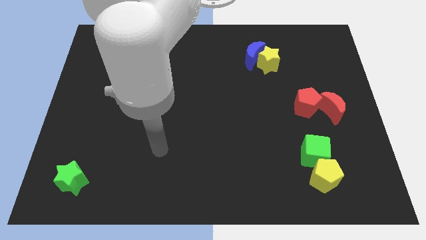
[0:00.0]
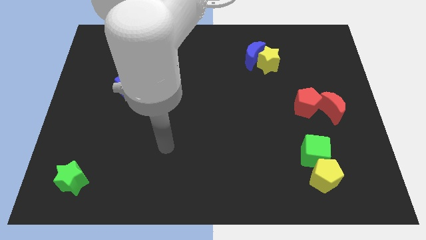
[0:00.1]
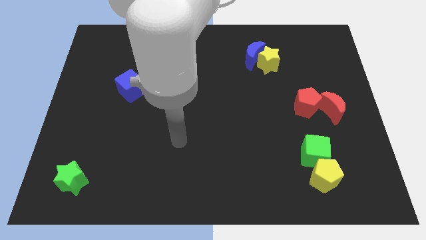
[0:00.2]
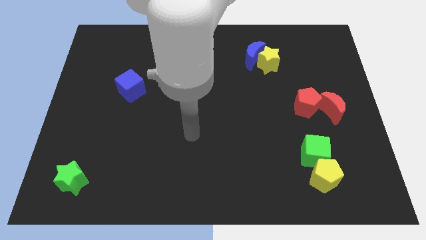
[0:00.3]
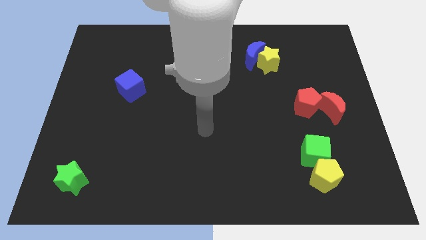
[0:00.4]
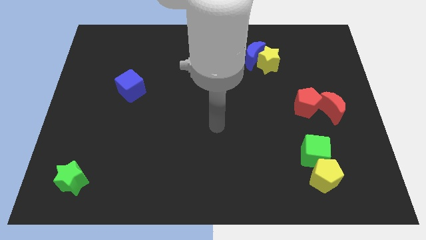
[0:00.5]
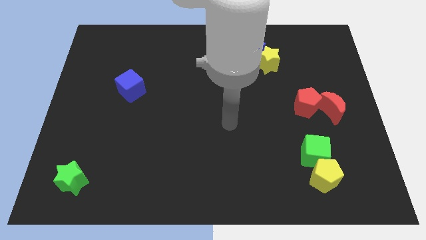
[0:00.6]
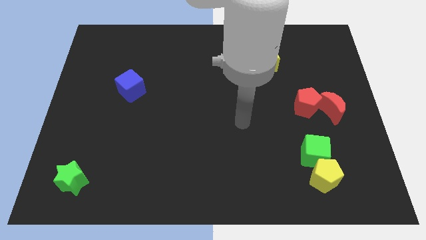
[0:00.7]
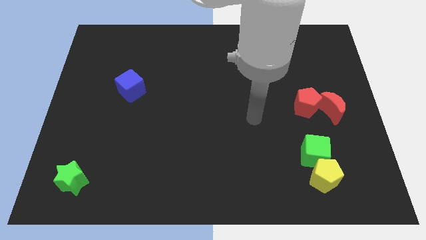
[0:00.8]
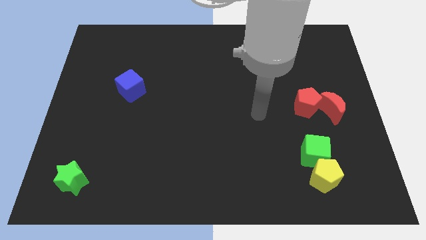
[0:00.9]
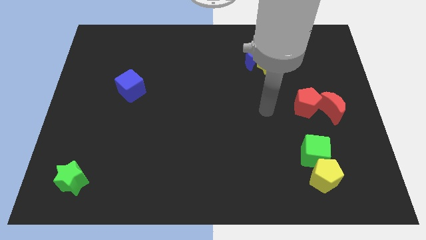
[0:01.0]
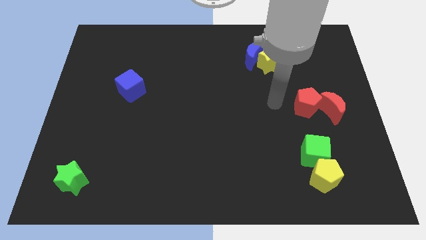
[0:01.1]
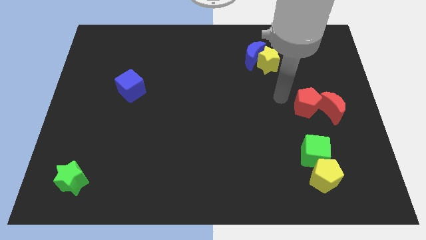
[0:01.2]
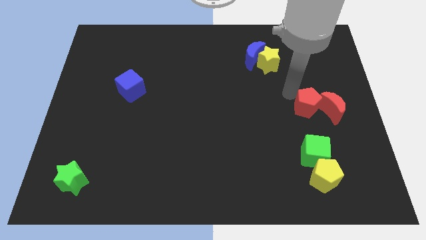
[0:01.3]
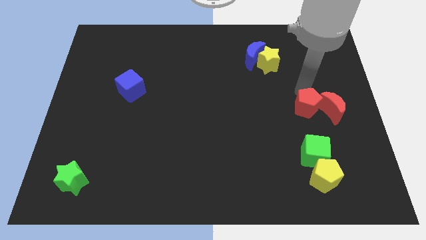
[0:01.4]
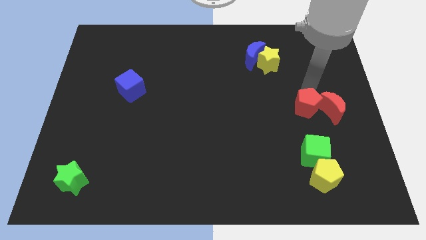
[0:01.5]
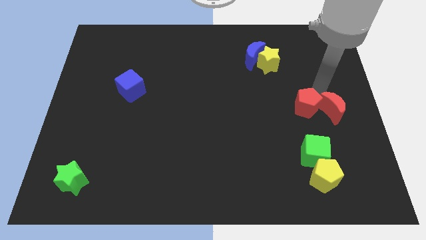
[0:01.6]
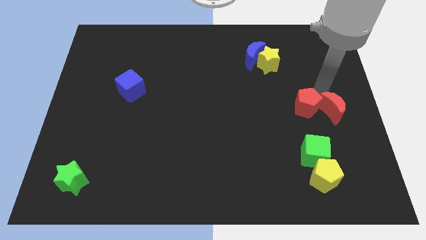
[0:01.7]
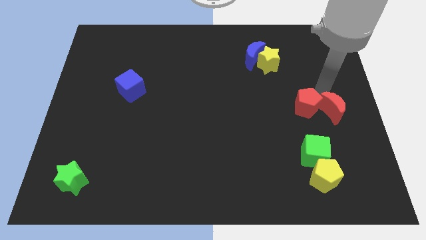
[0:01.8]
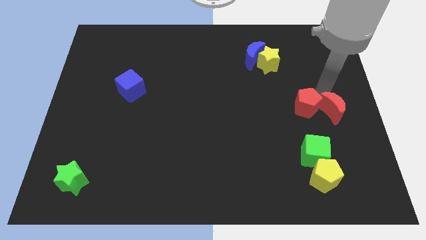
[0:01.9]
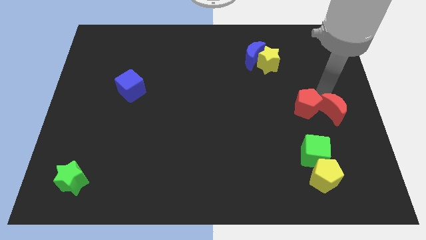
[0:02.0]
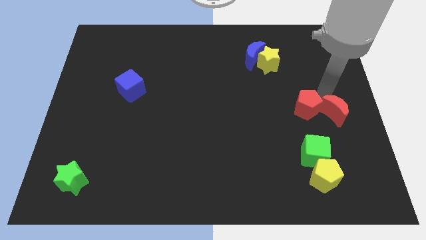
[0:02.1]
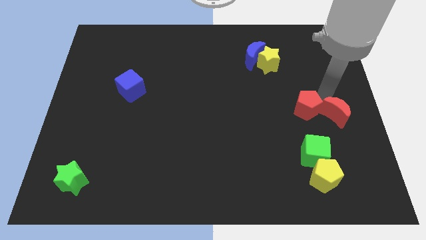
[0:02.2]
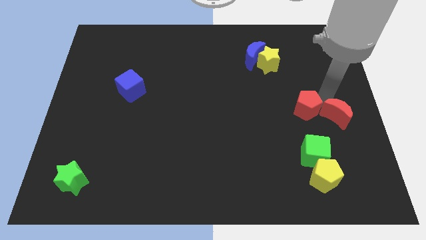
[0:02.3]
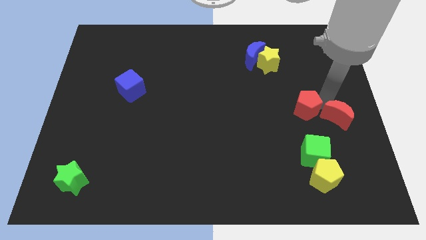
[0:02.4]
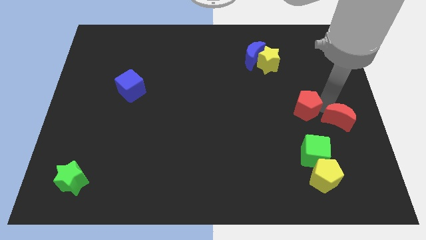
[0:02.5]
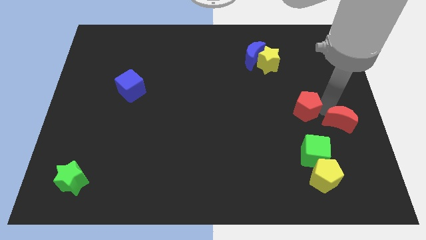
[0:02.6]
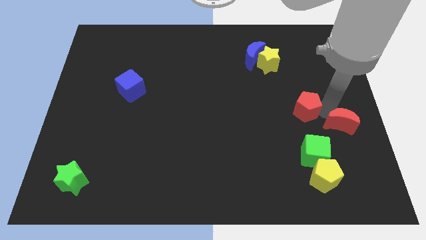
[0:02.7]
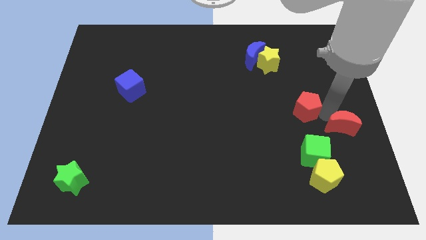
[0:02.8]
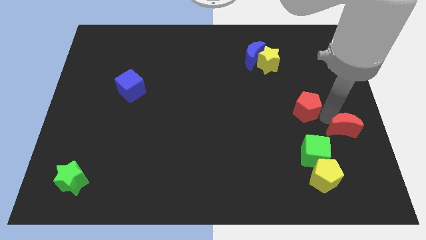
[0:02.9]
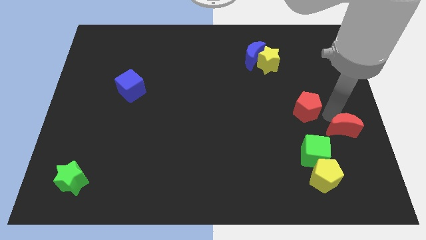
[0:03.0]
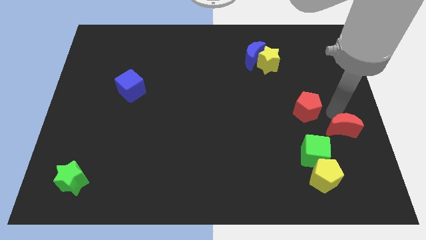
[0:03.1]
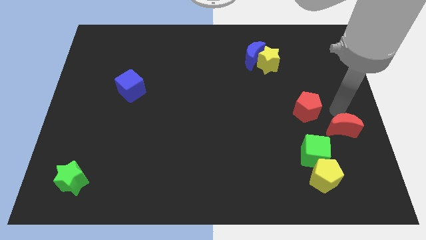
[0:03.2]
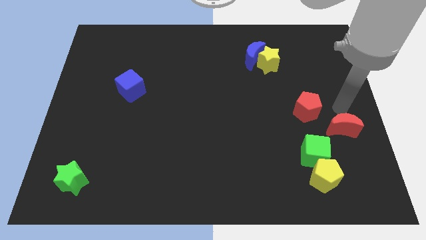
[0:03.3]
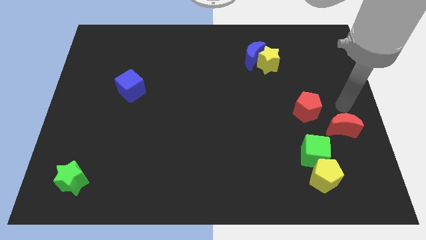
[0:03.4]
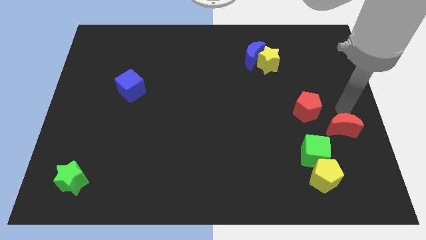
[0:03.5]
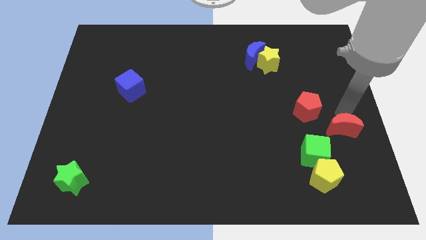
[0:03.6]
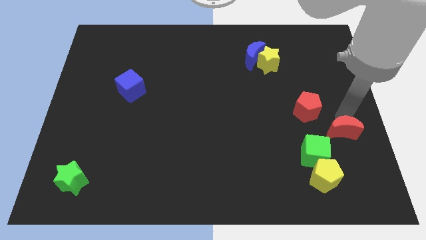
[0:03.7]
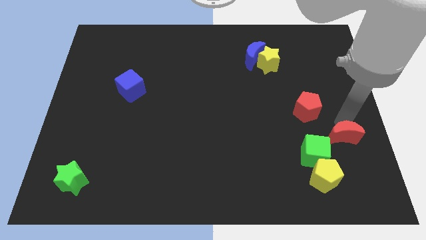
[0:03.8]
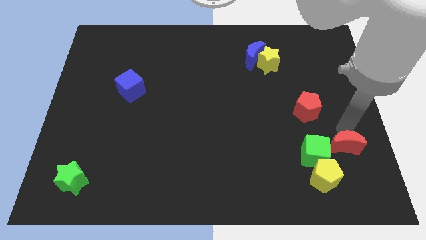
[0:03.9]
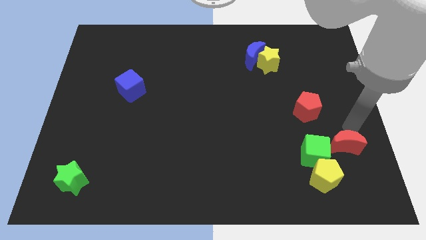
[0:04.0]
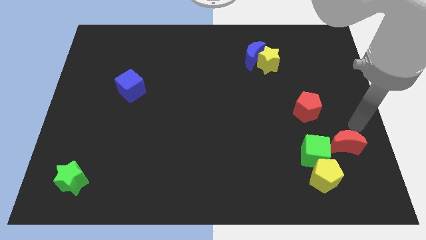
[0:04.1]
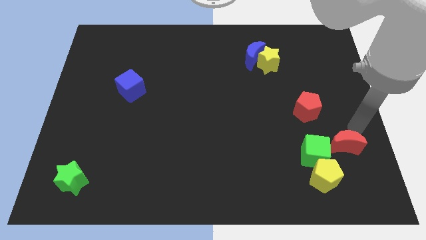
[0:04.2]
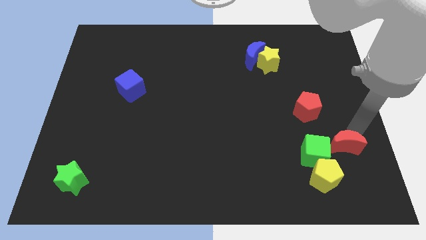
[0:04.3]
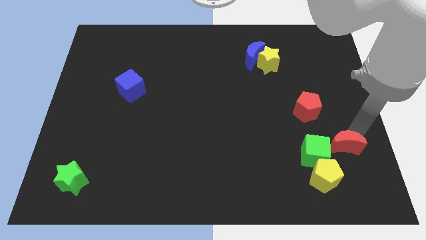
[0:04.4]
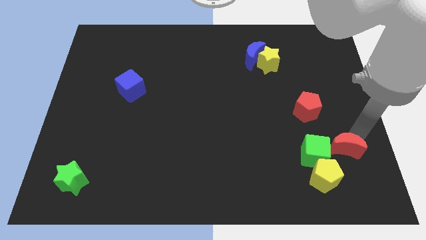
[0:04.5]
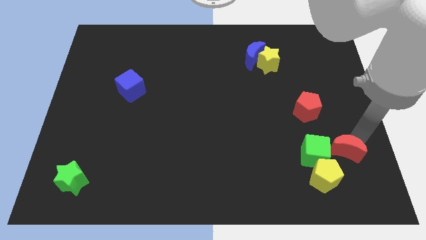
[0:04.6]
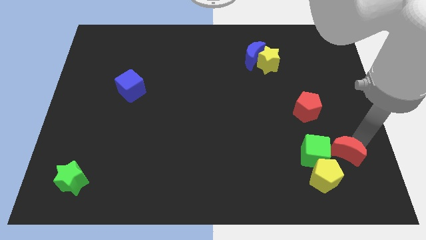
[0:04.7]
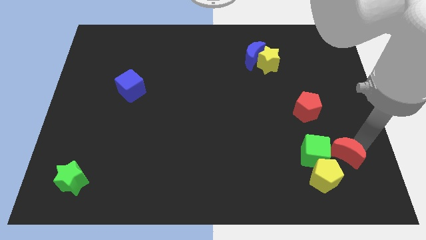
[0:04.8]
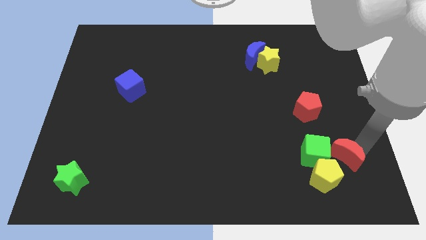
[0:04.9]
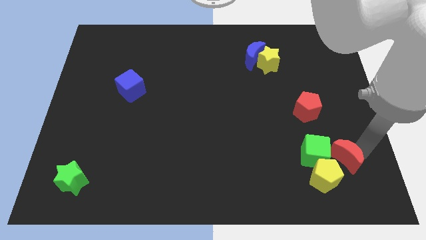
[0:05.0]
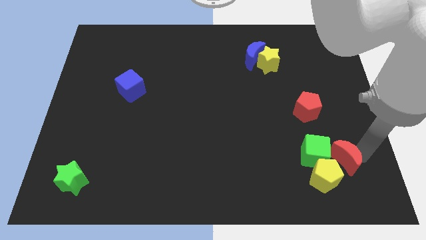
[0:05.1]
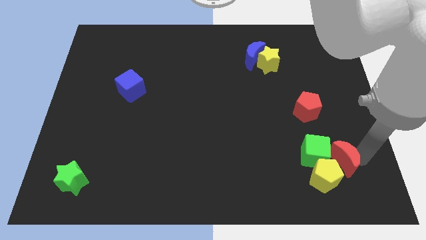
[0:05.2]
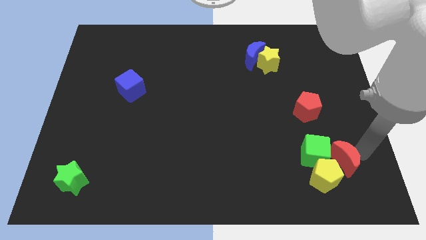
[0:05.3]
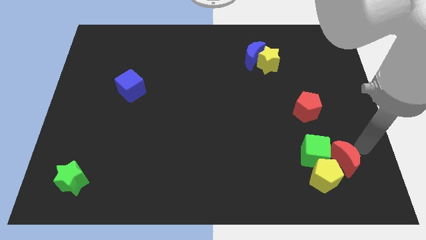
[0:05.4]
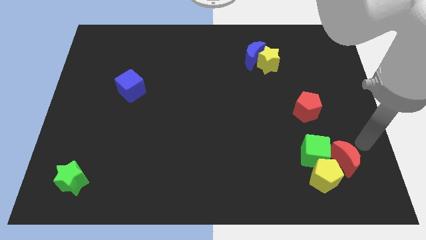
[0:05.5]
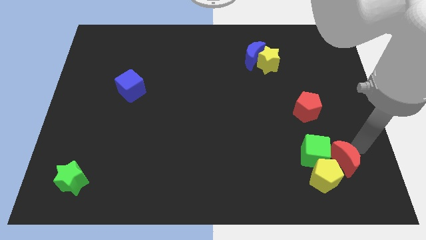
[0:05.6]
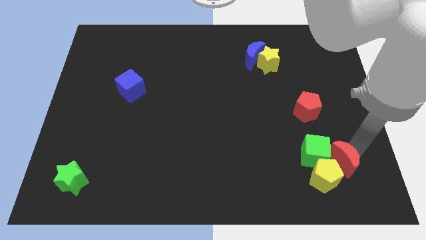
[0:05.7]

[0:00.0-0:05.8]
move the red moon close to the yellow pentagon

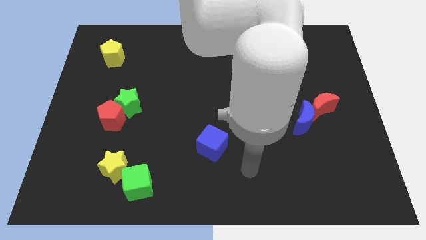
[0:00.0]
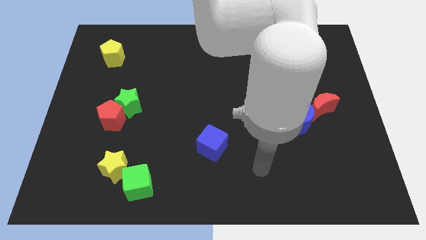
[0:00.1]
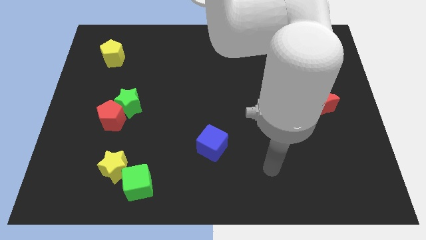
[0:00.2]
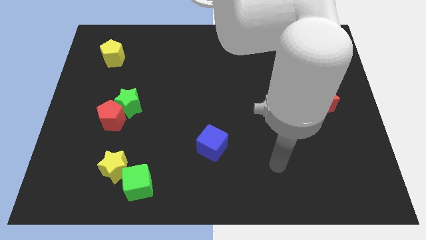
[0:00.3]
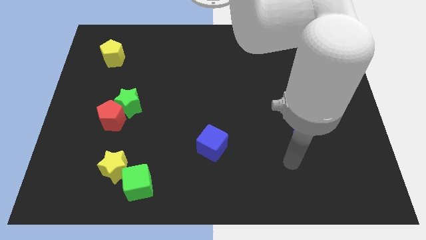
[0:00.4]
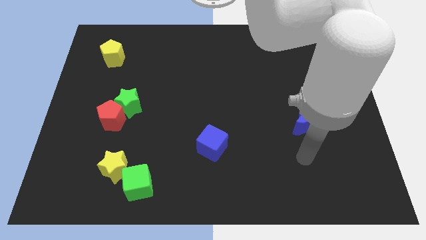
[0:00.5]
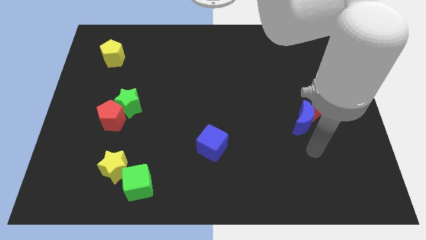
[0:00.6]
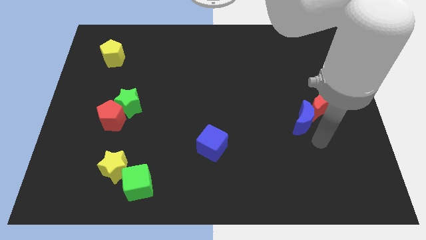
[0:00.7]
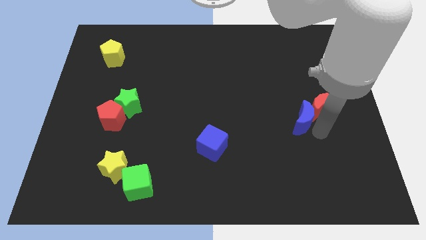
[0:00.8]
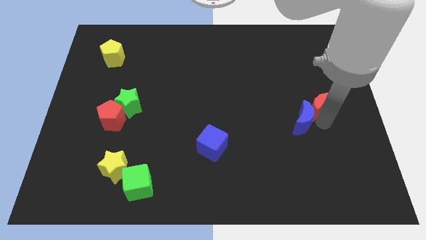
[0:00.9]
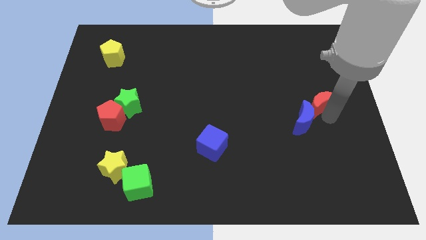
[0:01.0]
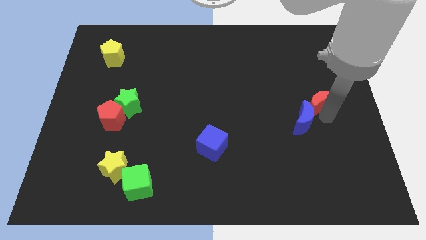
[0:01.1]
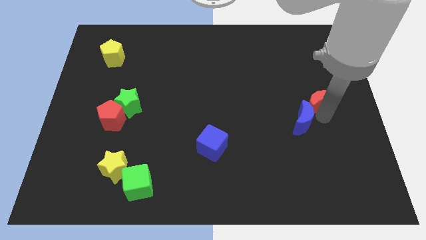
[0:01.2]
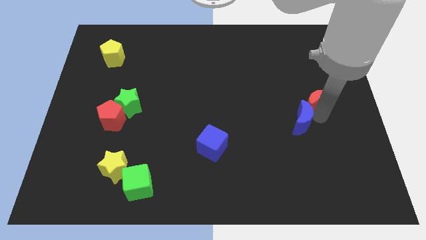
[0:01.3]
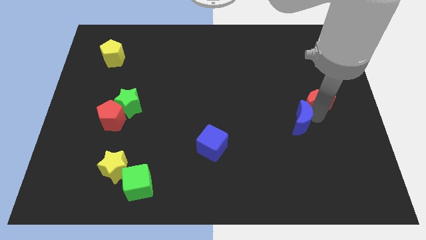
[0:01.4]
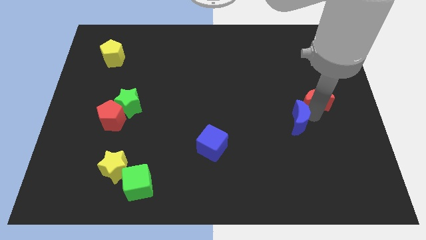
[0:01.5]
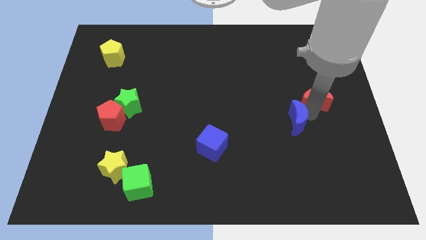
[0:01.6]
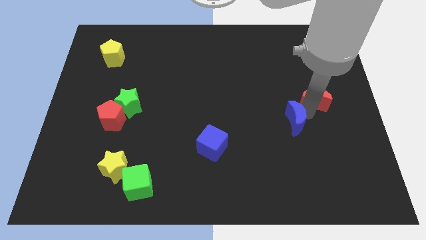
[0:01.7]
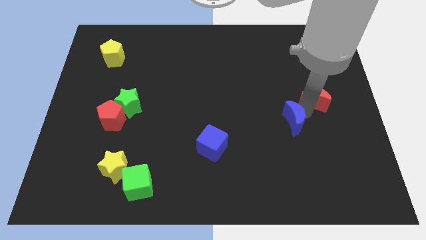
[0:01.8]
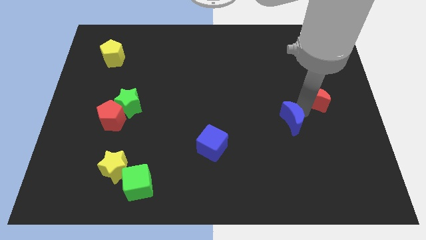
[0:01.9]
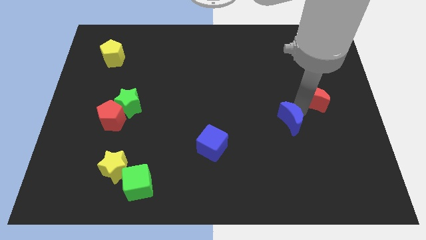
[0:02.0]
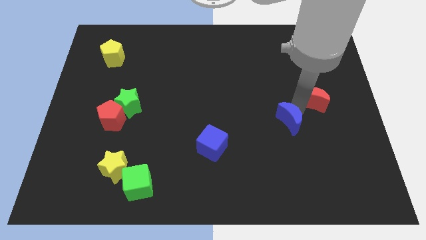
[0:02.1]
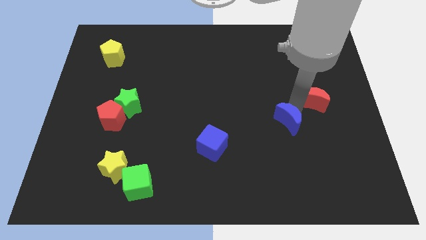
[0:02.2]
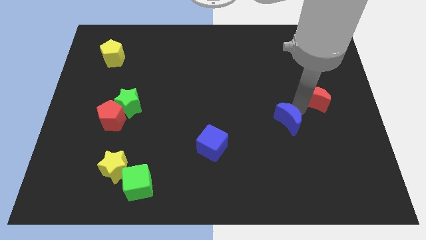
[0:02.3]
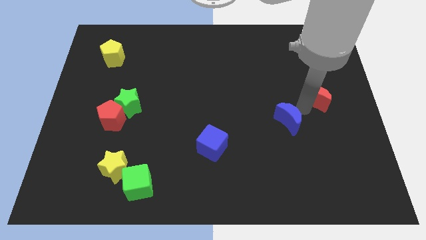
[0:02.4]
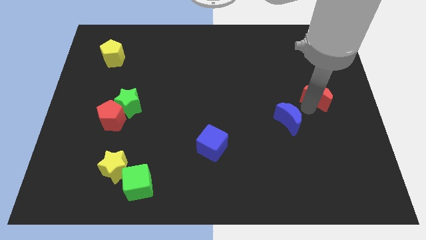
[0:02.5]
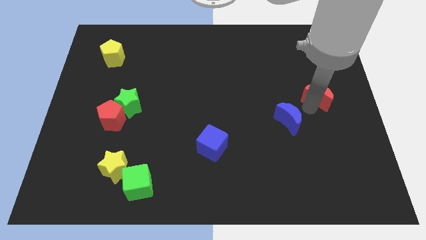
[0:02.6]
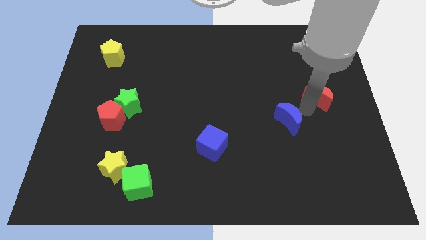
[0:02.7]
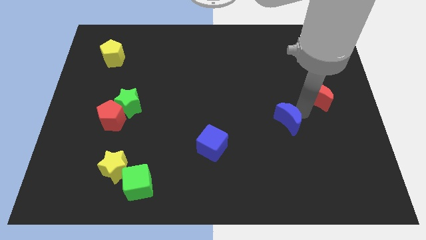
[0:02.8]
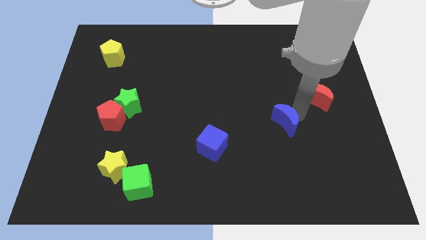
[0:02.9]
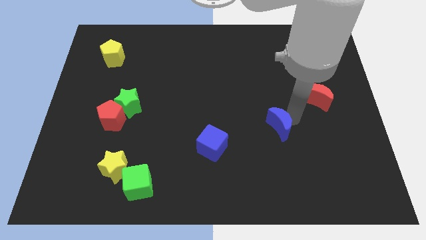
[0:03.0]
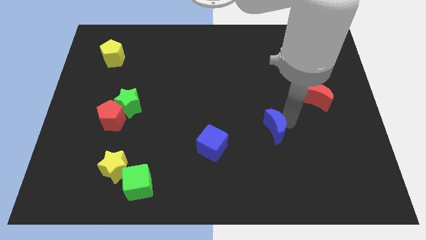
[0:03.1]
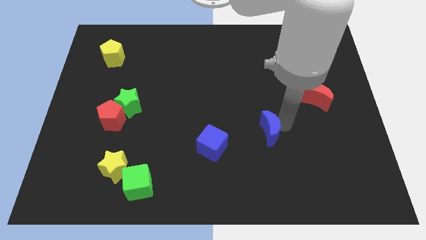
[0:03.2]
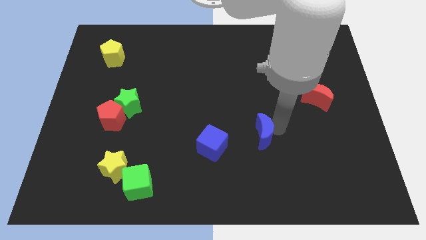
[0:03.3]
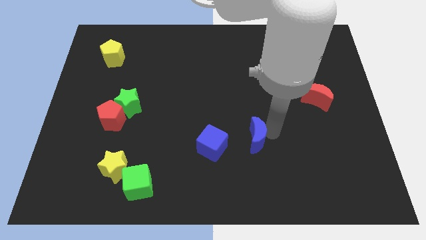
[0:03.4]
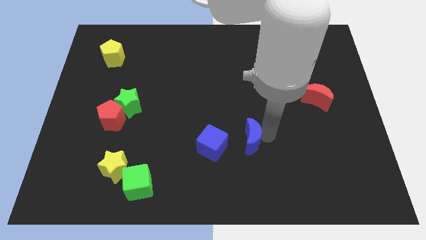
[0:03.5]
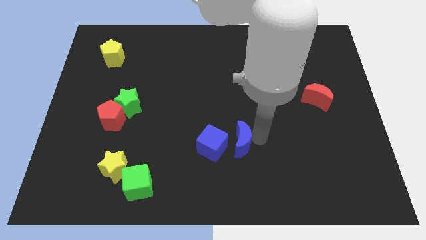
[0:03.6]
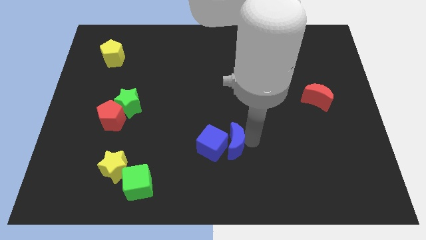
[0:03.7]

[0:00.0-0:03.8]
put the blue moon to the blue cube
